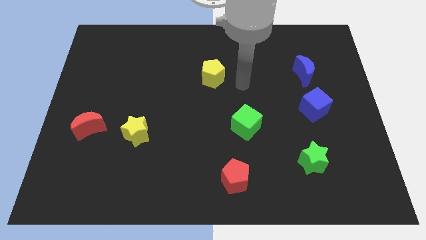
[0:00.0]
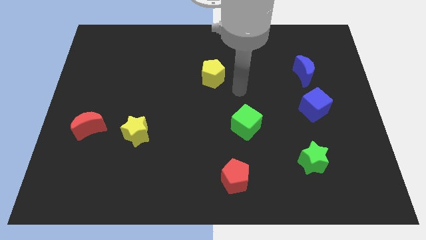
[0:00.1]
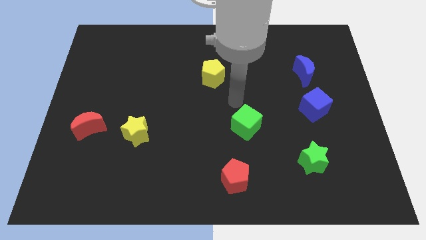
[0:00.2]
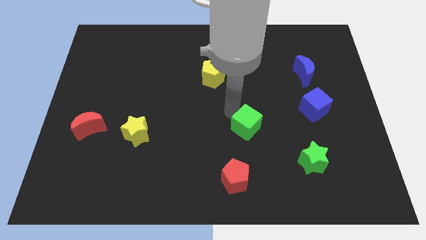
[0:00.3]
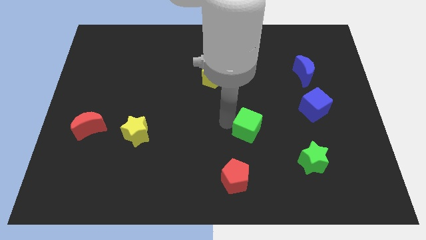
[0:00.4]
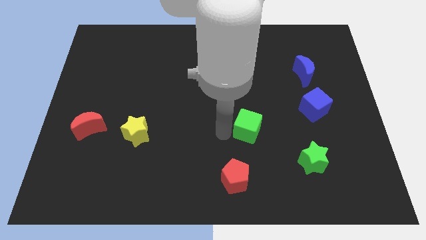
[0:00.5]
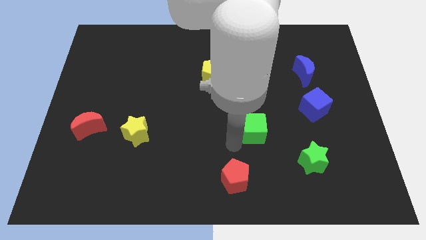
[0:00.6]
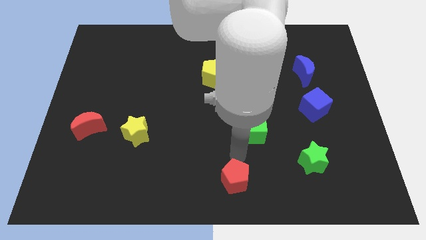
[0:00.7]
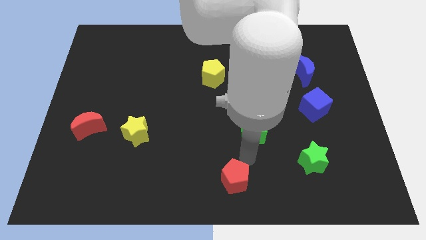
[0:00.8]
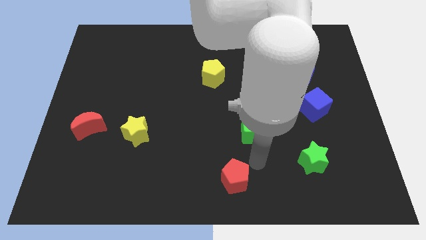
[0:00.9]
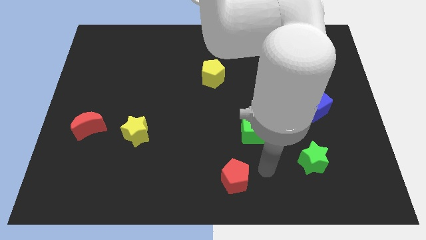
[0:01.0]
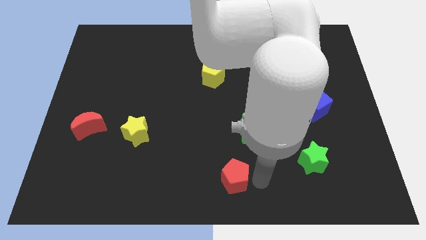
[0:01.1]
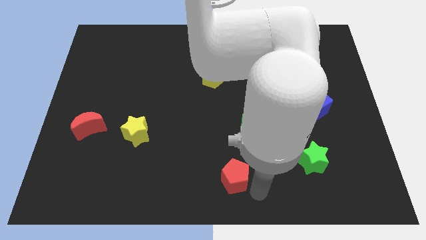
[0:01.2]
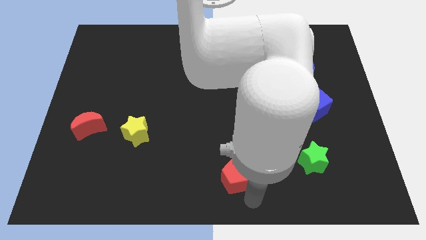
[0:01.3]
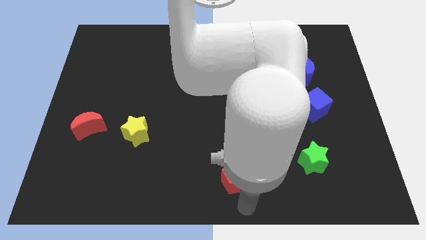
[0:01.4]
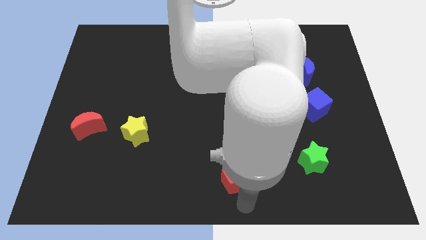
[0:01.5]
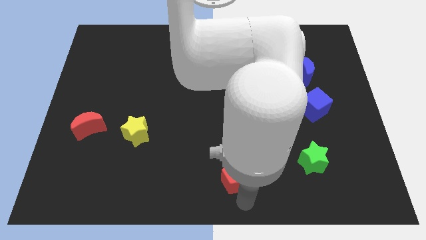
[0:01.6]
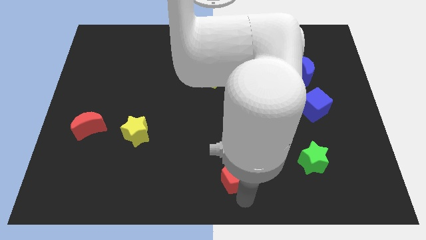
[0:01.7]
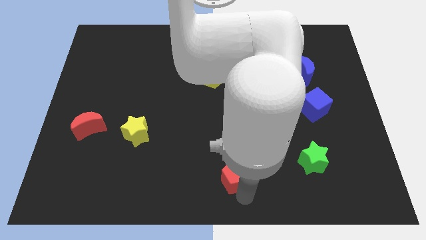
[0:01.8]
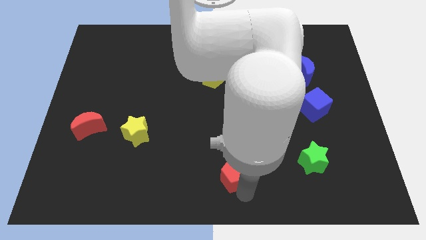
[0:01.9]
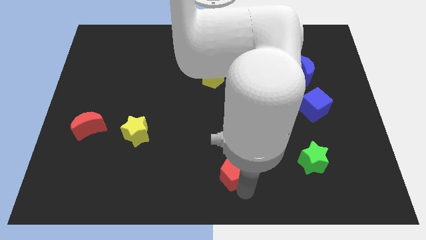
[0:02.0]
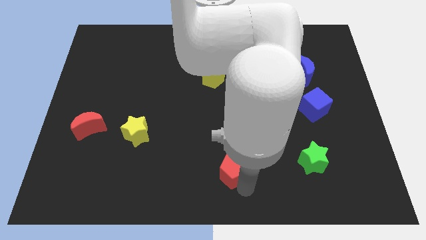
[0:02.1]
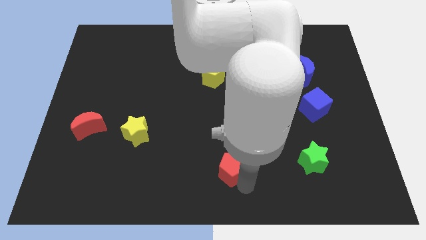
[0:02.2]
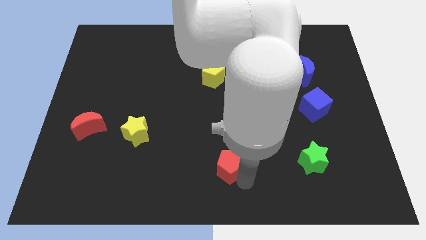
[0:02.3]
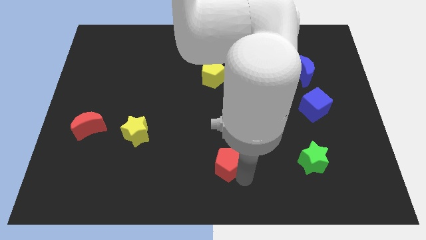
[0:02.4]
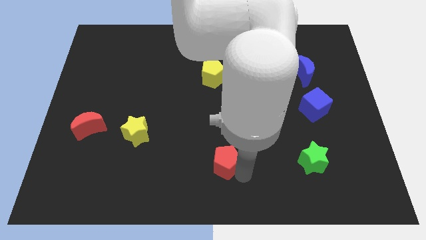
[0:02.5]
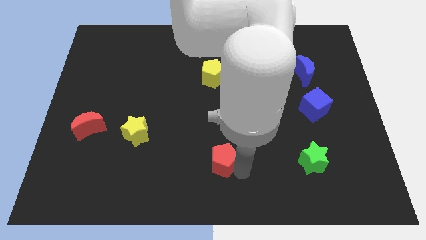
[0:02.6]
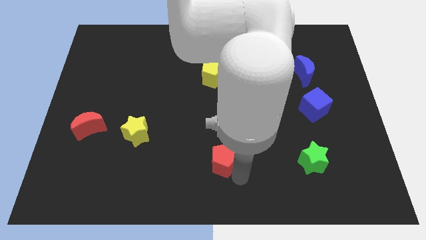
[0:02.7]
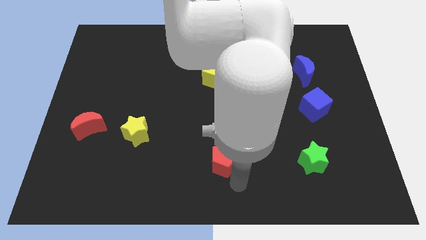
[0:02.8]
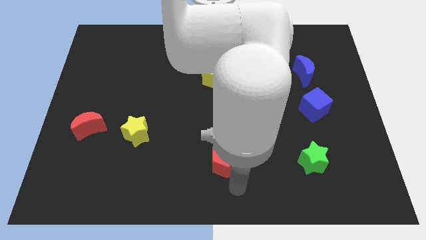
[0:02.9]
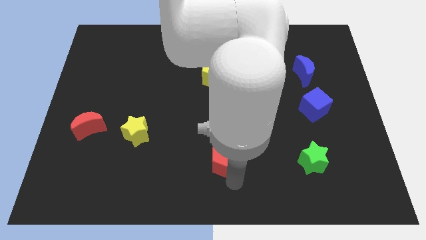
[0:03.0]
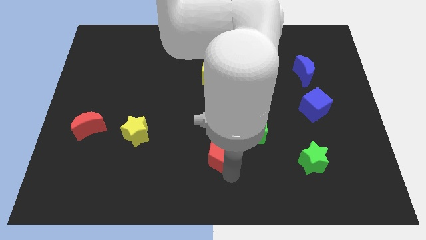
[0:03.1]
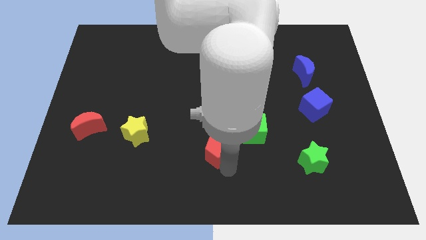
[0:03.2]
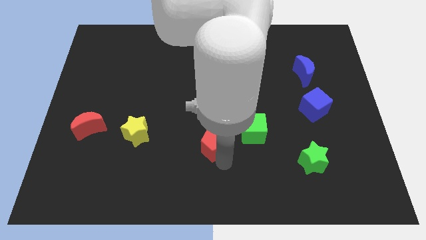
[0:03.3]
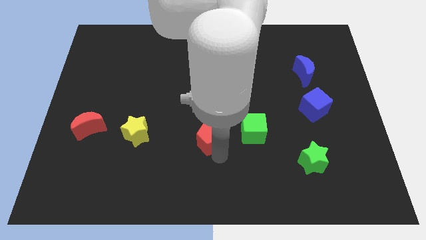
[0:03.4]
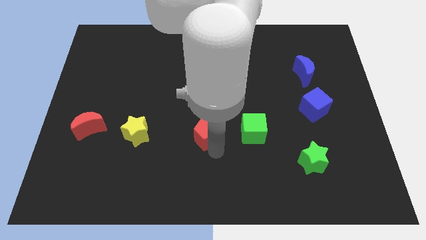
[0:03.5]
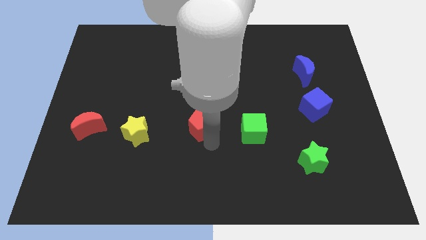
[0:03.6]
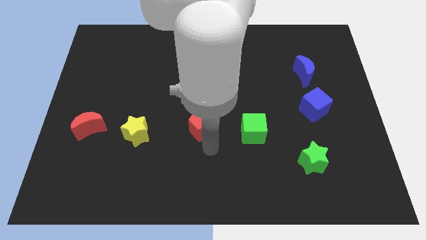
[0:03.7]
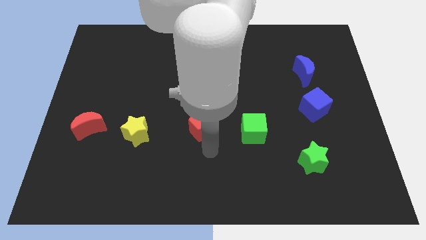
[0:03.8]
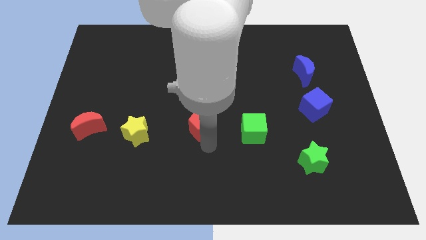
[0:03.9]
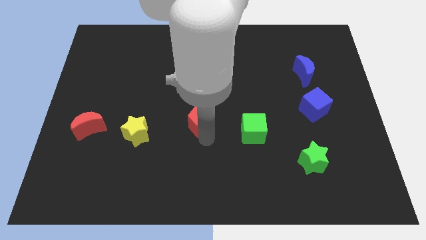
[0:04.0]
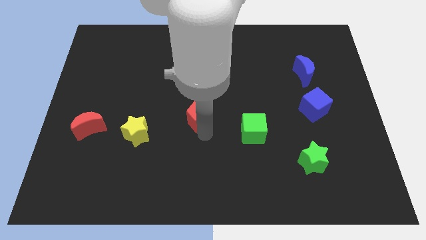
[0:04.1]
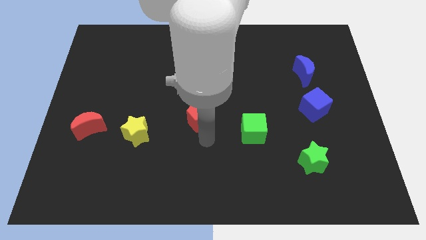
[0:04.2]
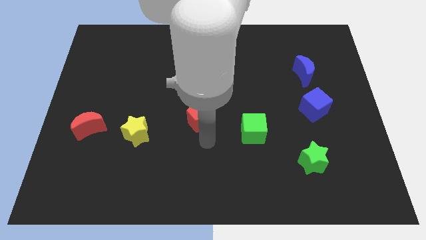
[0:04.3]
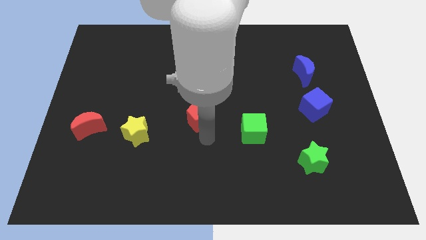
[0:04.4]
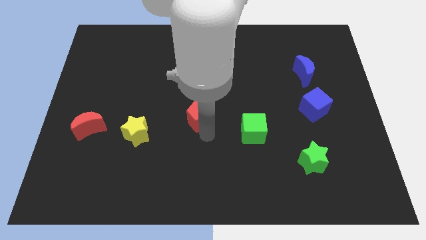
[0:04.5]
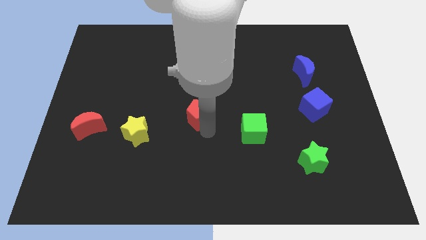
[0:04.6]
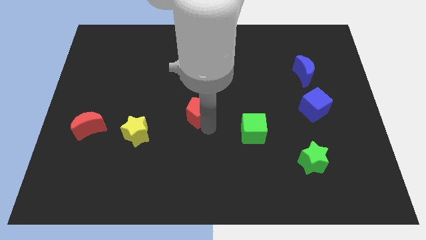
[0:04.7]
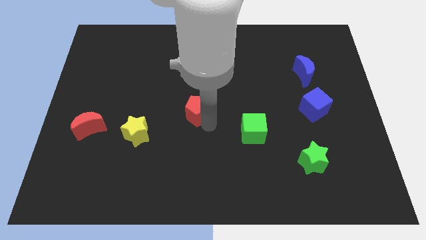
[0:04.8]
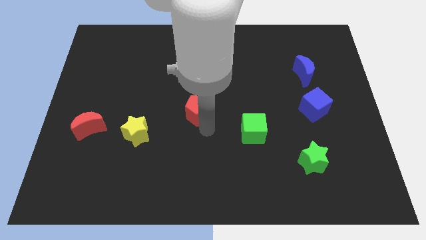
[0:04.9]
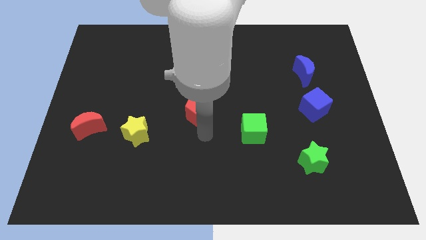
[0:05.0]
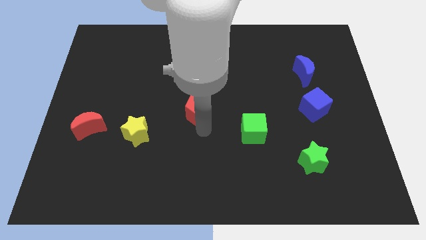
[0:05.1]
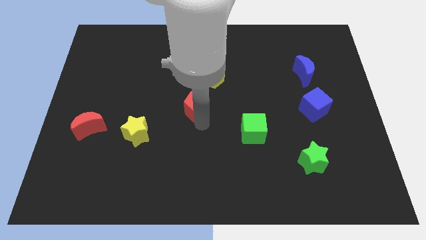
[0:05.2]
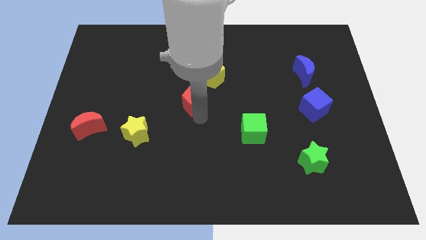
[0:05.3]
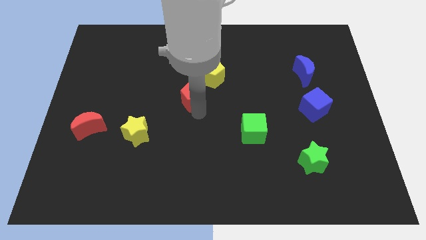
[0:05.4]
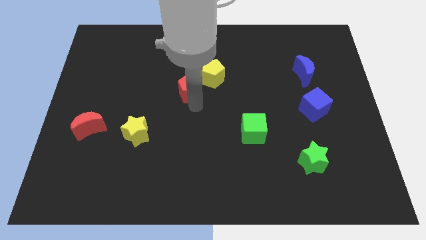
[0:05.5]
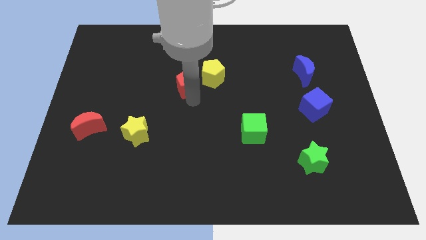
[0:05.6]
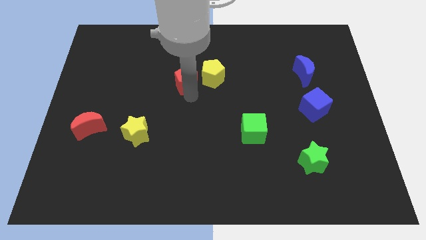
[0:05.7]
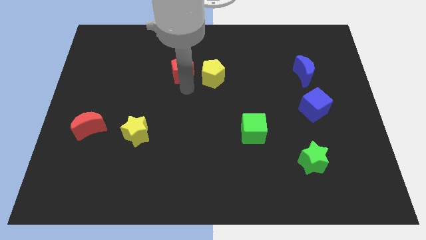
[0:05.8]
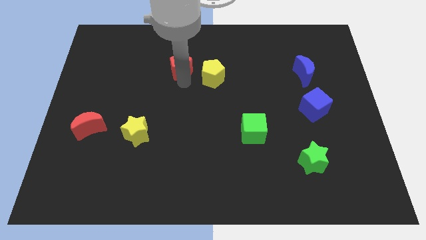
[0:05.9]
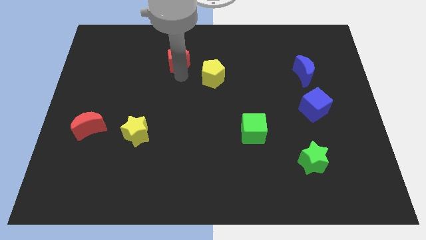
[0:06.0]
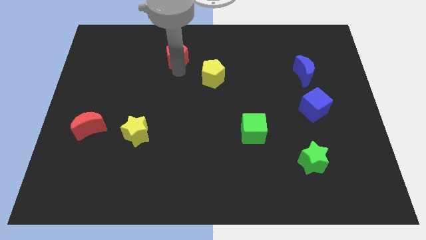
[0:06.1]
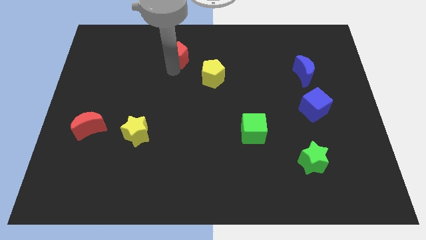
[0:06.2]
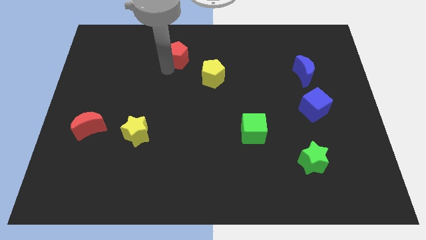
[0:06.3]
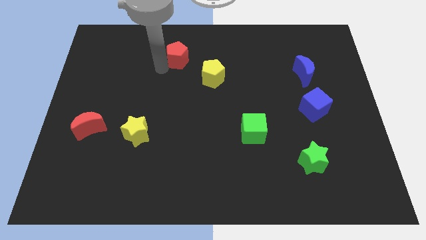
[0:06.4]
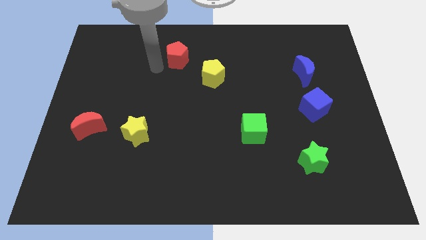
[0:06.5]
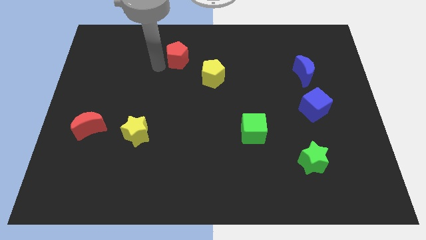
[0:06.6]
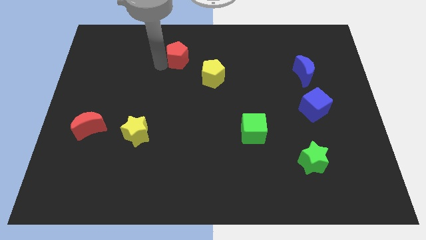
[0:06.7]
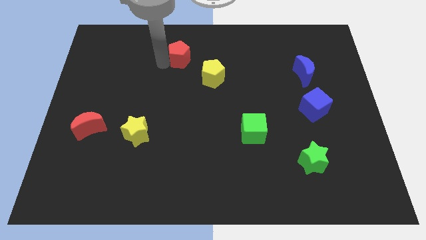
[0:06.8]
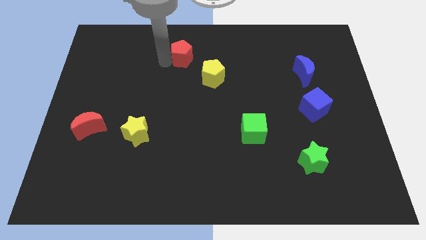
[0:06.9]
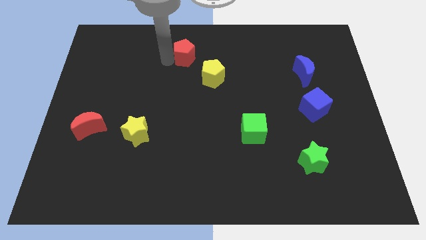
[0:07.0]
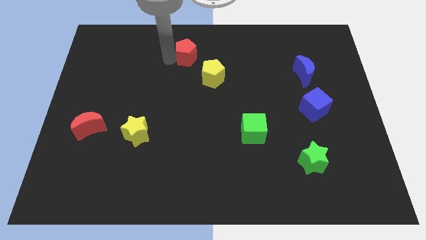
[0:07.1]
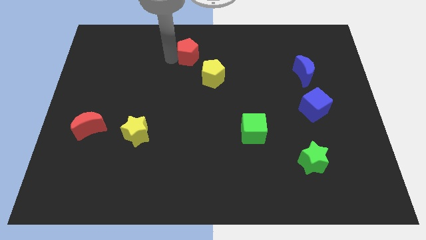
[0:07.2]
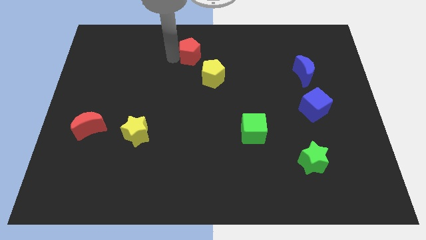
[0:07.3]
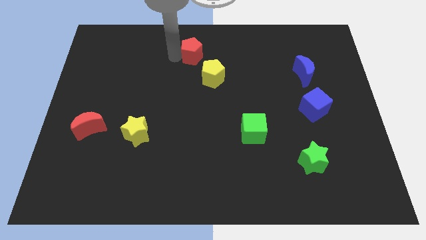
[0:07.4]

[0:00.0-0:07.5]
move the red pentagon to the top side
